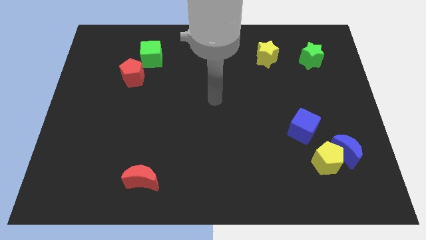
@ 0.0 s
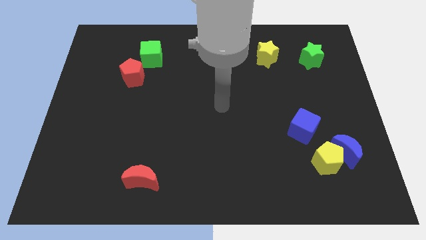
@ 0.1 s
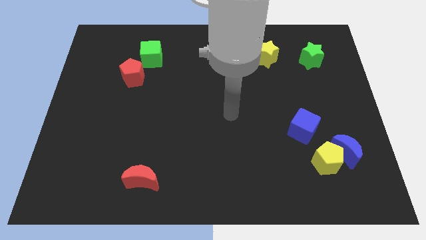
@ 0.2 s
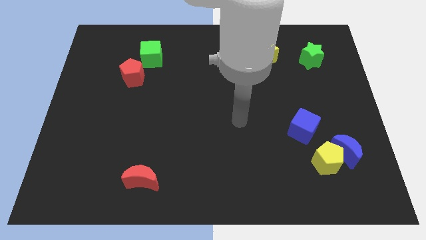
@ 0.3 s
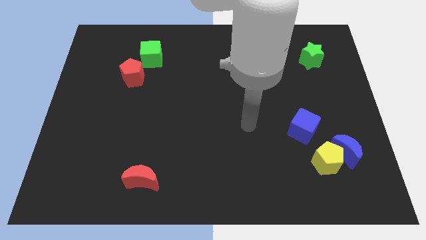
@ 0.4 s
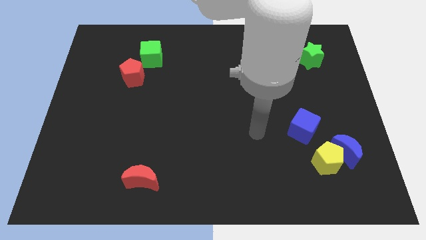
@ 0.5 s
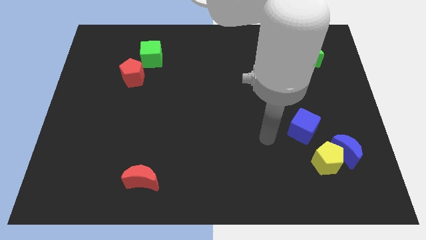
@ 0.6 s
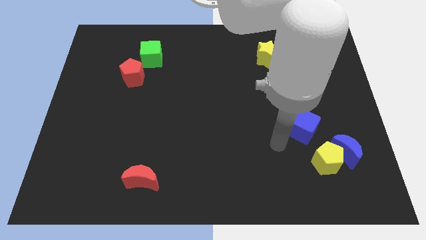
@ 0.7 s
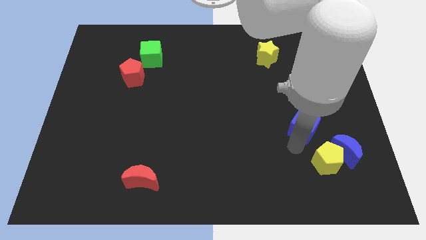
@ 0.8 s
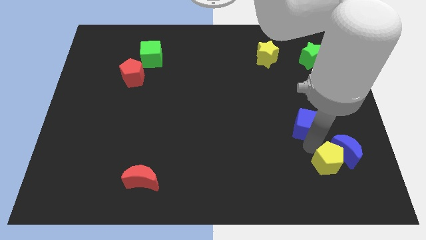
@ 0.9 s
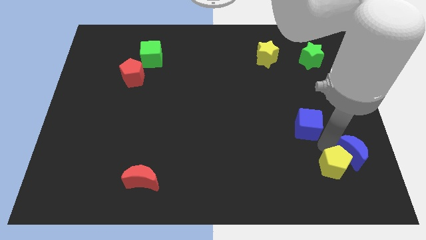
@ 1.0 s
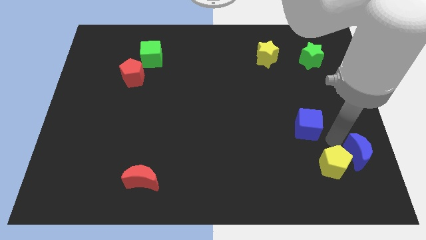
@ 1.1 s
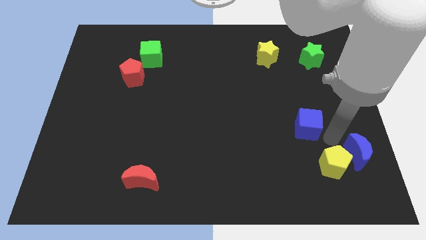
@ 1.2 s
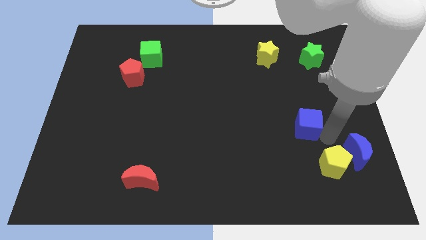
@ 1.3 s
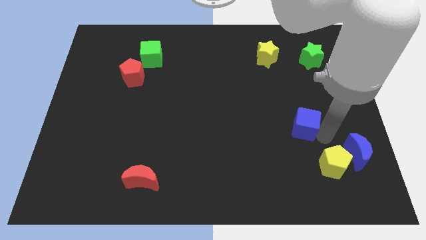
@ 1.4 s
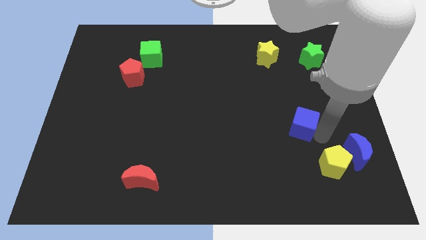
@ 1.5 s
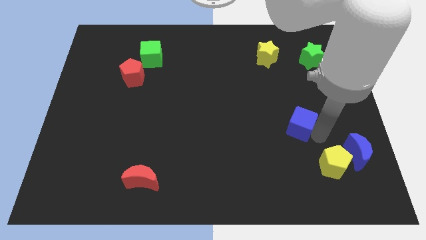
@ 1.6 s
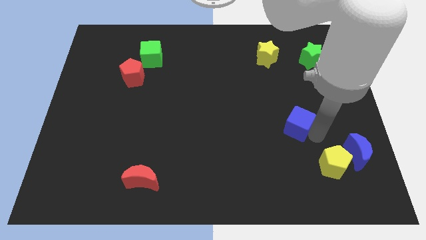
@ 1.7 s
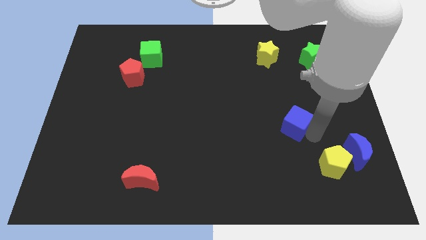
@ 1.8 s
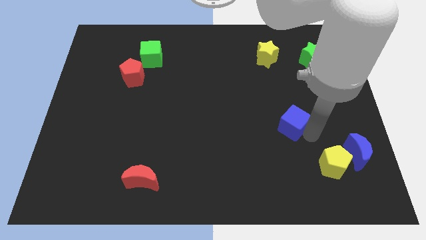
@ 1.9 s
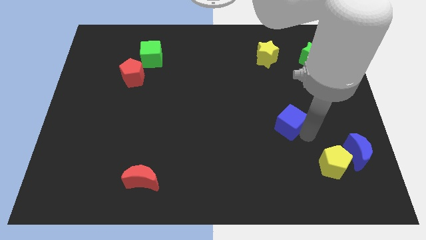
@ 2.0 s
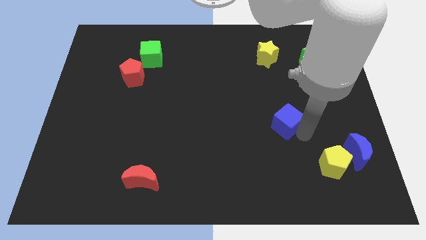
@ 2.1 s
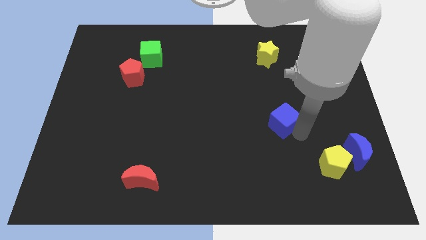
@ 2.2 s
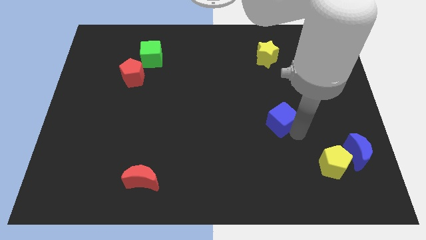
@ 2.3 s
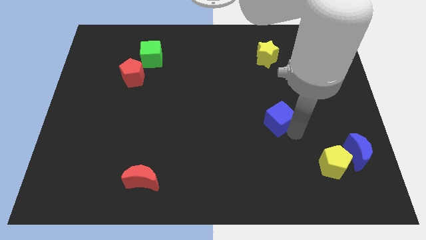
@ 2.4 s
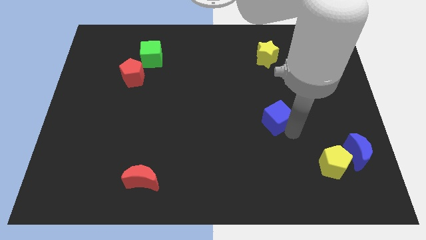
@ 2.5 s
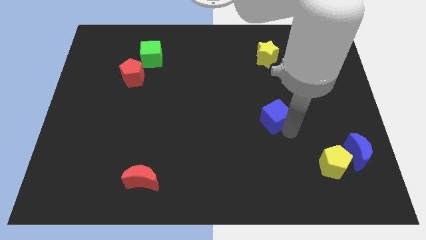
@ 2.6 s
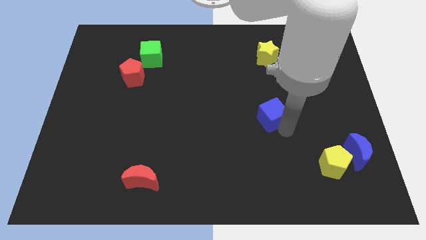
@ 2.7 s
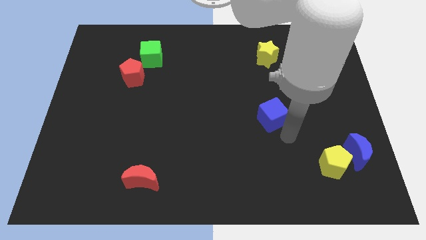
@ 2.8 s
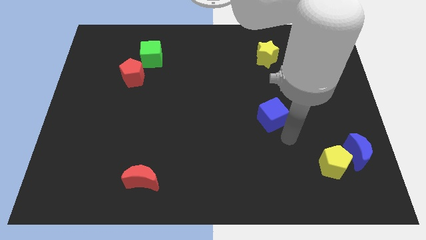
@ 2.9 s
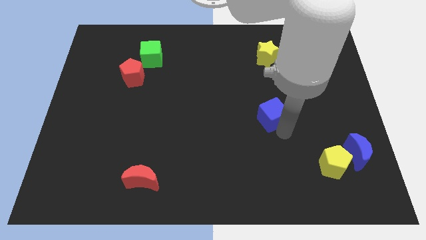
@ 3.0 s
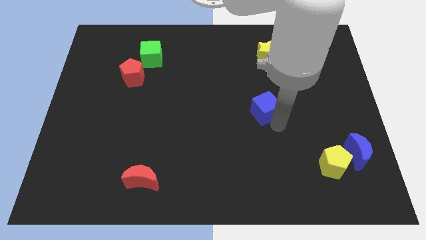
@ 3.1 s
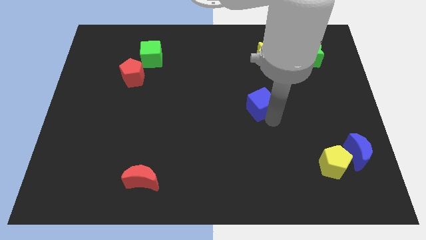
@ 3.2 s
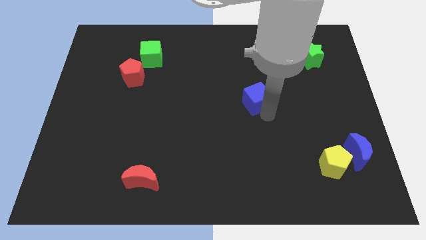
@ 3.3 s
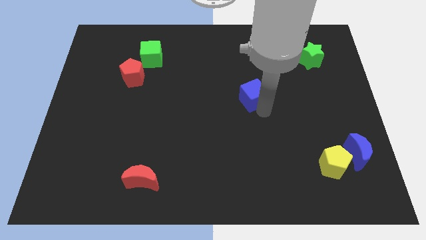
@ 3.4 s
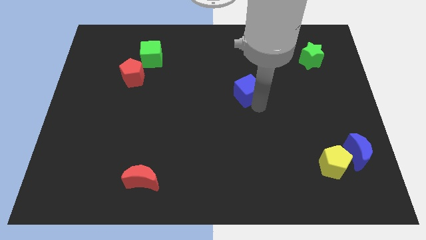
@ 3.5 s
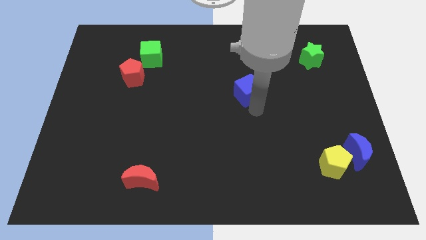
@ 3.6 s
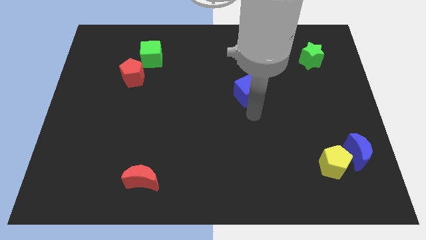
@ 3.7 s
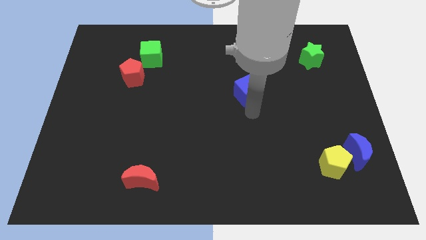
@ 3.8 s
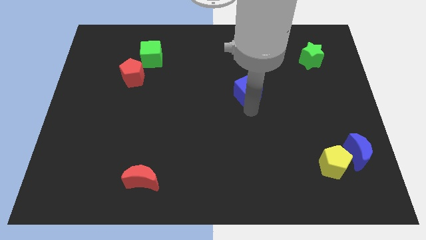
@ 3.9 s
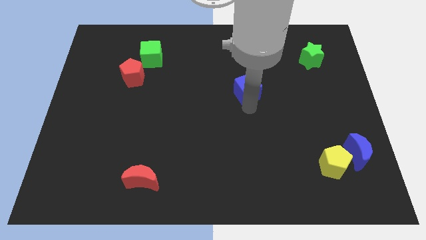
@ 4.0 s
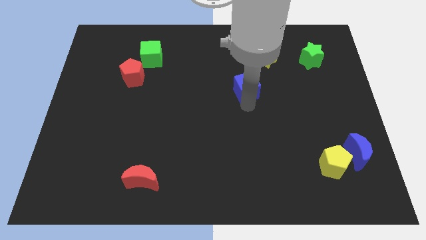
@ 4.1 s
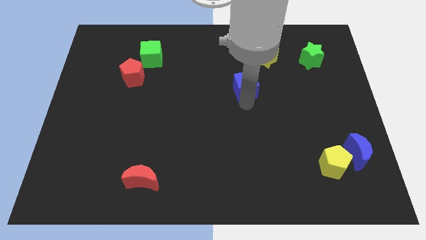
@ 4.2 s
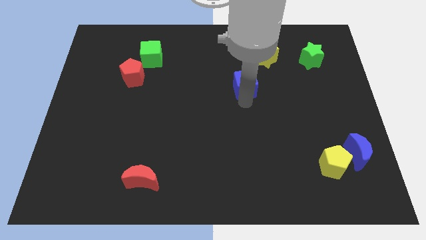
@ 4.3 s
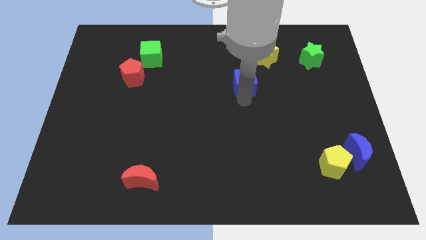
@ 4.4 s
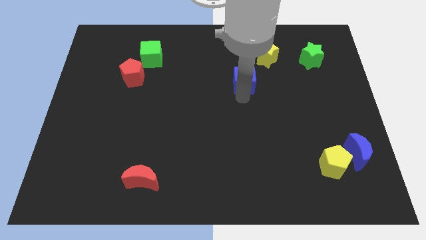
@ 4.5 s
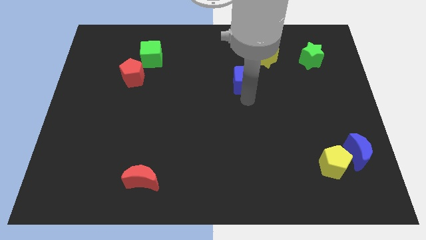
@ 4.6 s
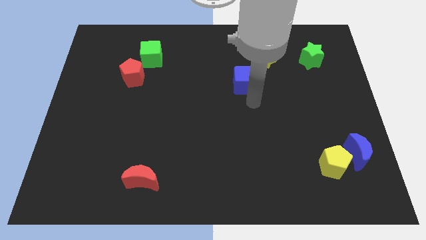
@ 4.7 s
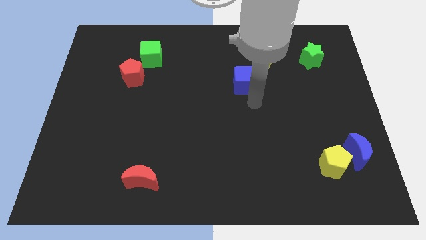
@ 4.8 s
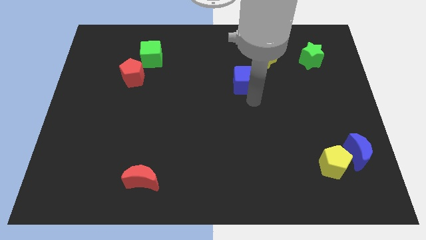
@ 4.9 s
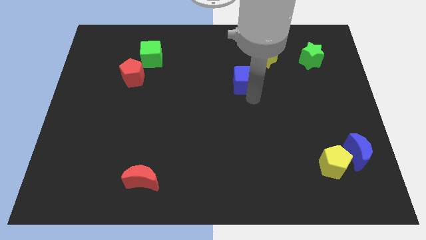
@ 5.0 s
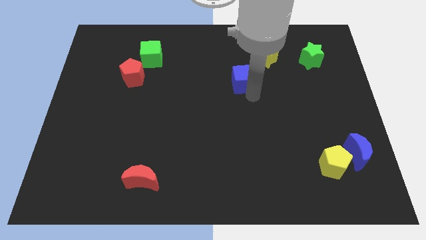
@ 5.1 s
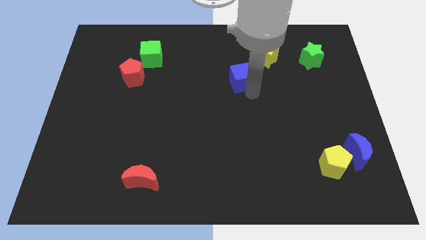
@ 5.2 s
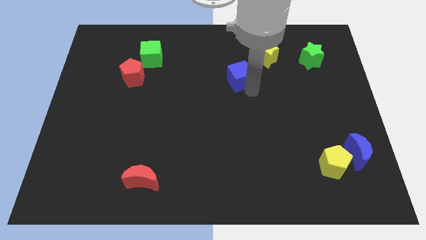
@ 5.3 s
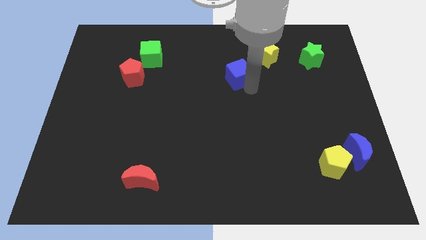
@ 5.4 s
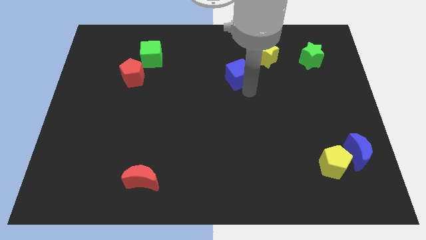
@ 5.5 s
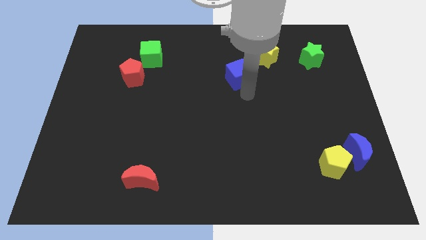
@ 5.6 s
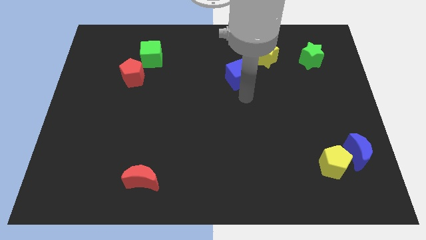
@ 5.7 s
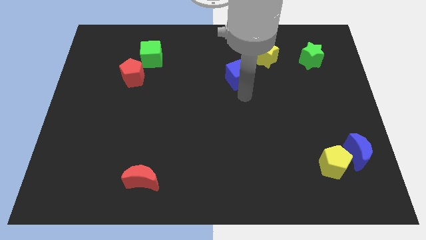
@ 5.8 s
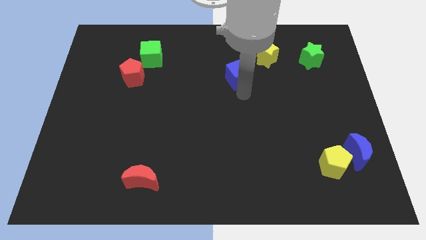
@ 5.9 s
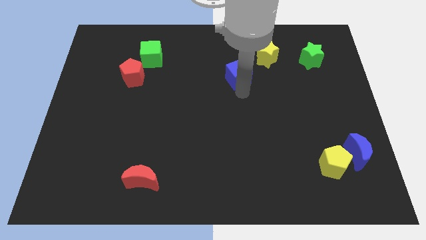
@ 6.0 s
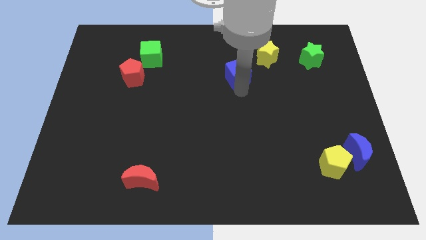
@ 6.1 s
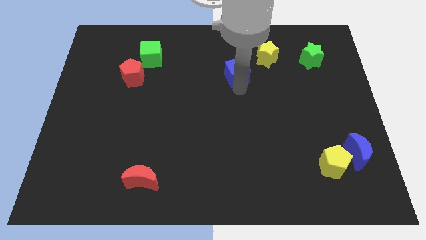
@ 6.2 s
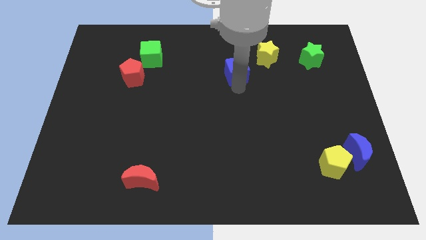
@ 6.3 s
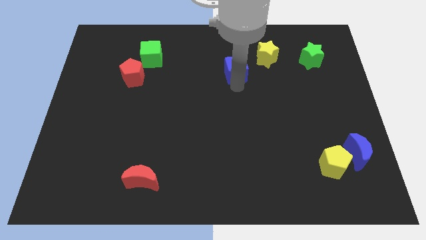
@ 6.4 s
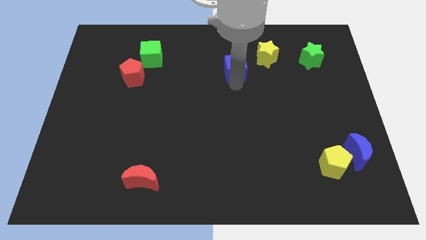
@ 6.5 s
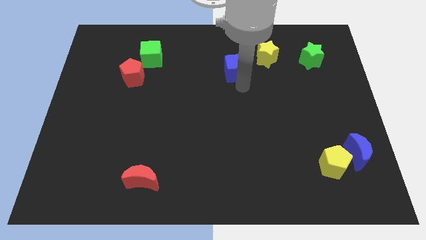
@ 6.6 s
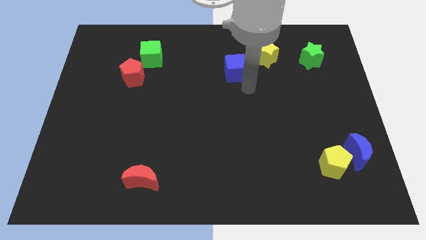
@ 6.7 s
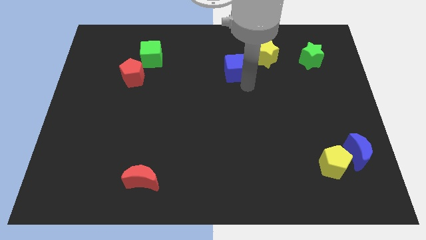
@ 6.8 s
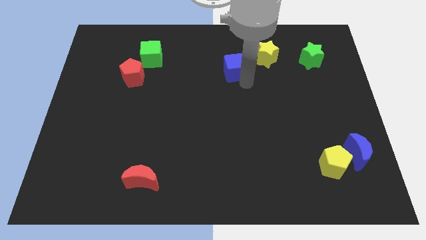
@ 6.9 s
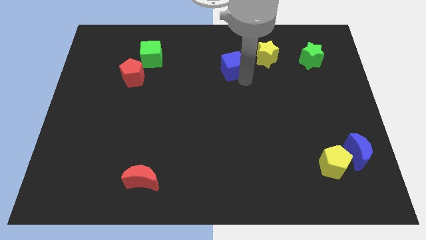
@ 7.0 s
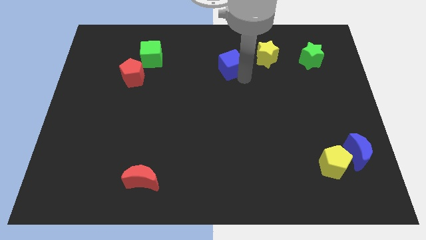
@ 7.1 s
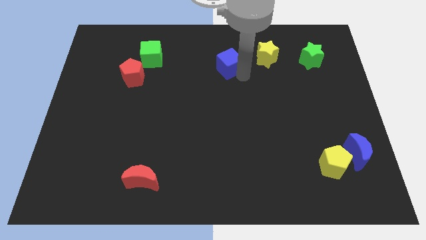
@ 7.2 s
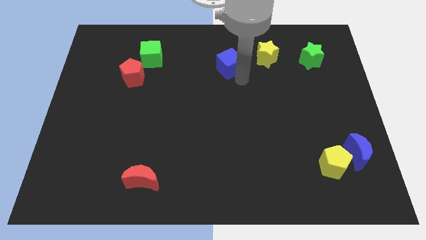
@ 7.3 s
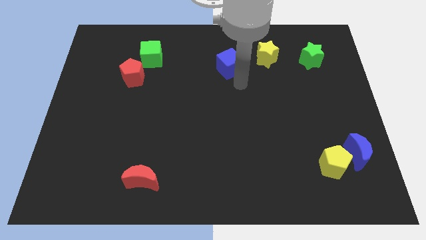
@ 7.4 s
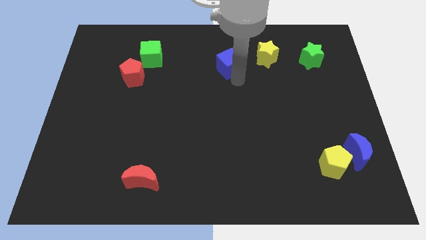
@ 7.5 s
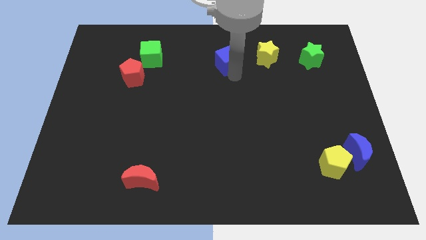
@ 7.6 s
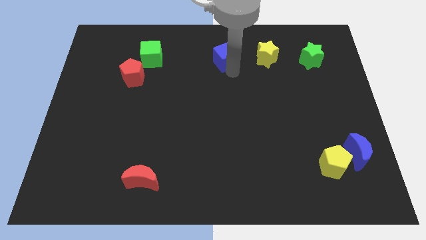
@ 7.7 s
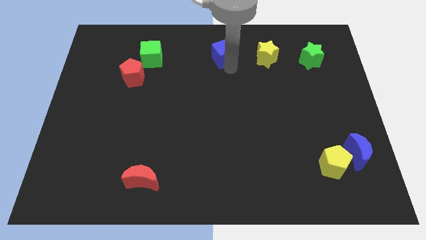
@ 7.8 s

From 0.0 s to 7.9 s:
slide the blue cube to the towards your base
